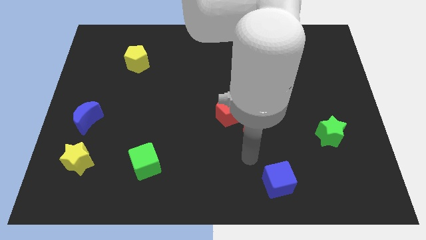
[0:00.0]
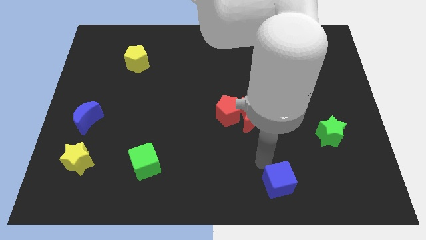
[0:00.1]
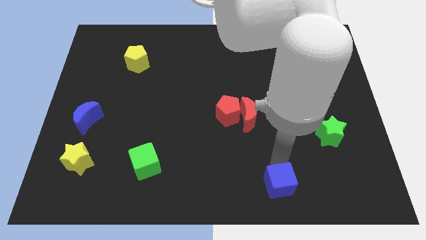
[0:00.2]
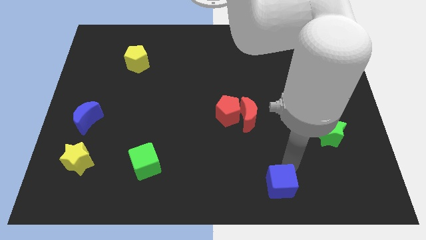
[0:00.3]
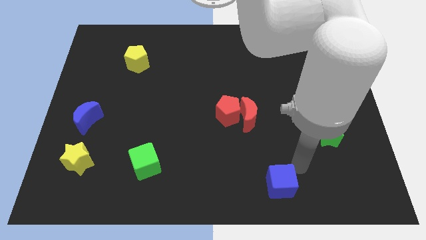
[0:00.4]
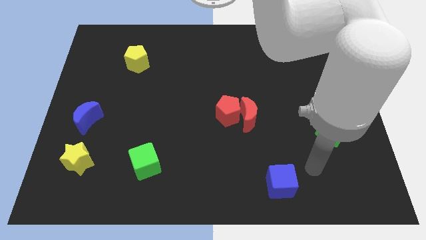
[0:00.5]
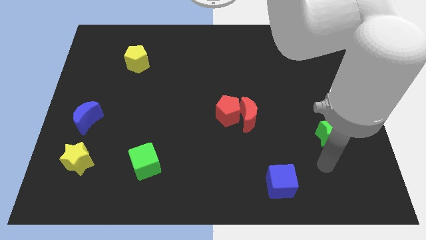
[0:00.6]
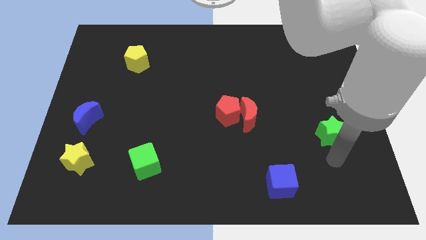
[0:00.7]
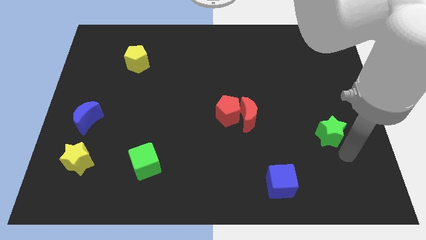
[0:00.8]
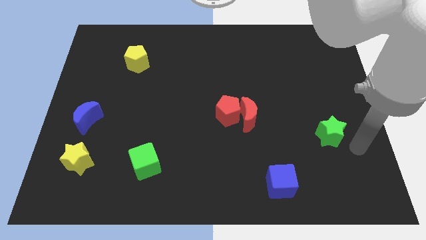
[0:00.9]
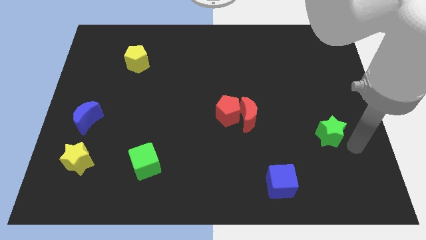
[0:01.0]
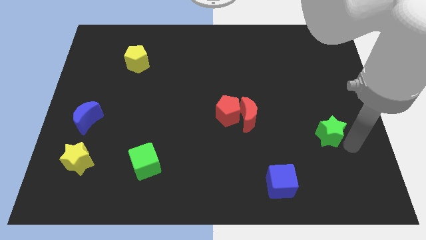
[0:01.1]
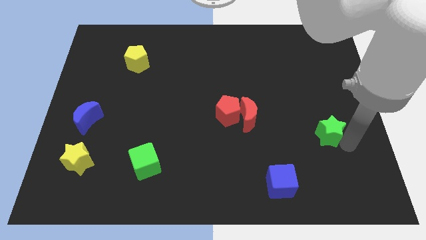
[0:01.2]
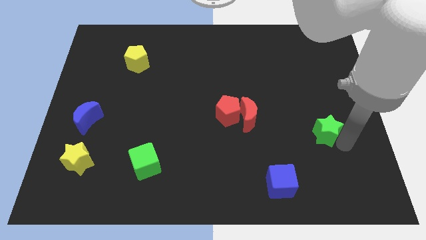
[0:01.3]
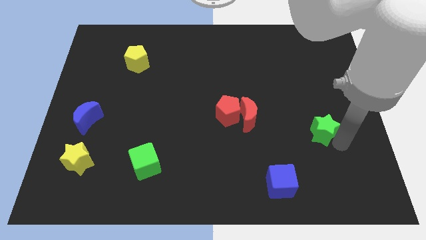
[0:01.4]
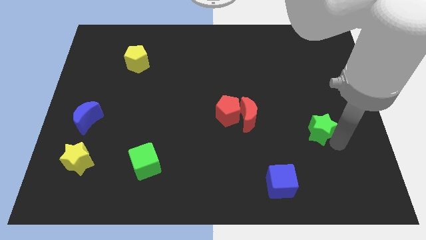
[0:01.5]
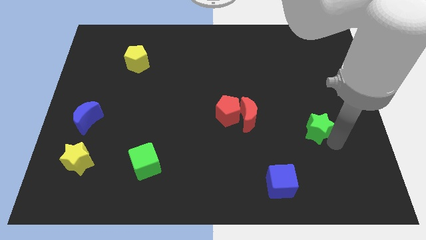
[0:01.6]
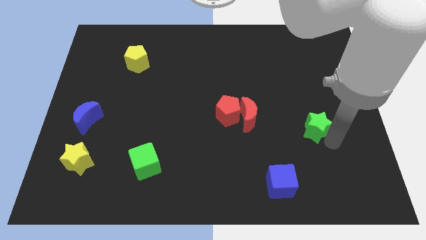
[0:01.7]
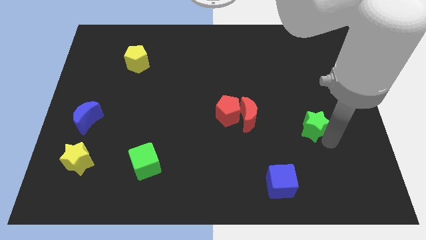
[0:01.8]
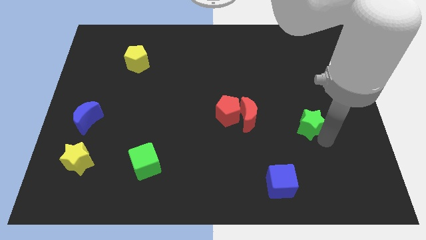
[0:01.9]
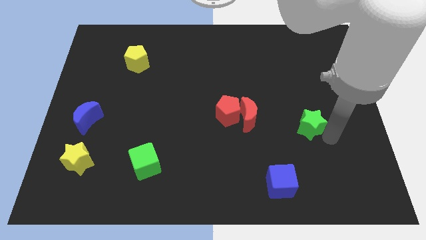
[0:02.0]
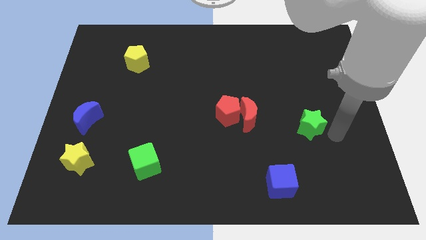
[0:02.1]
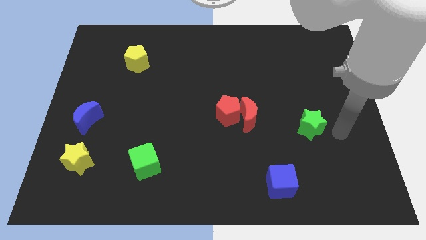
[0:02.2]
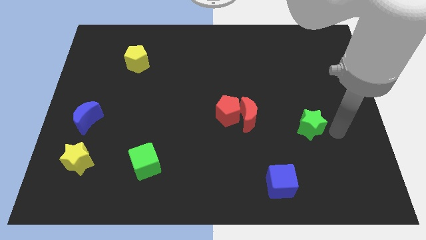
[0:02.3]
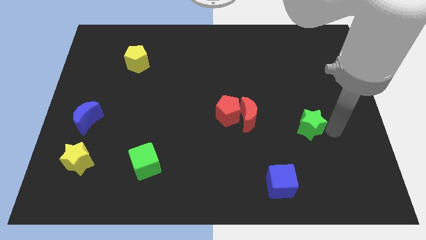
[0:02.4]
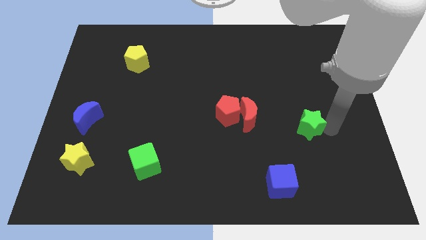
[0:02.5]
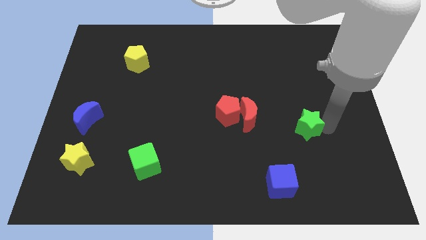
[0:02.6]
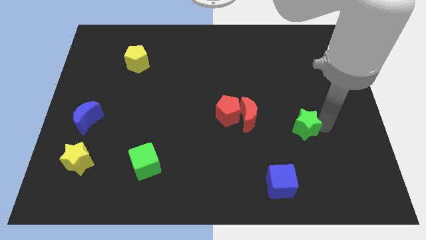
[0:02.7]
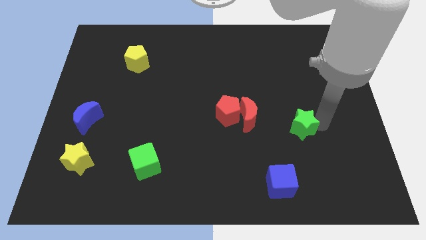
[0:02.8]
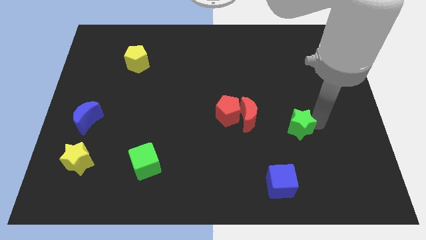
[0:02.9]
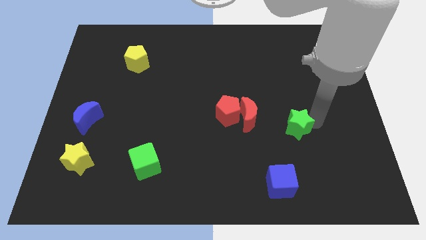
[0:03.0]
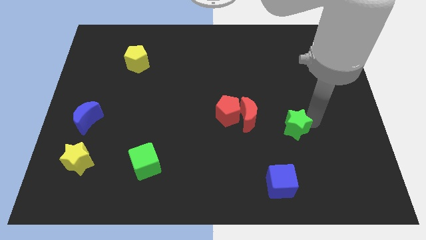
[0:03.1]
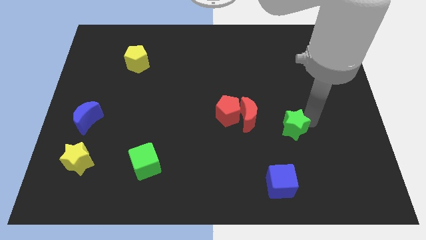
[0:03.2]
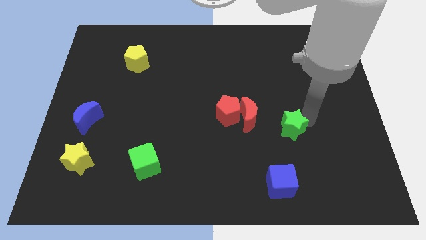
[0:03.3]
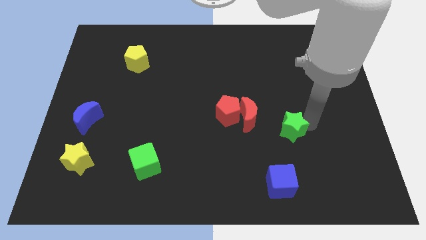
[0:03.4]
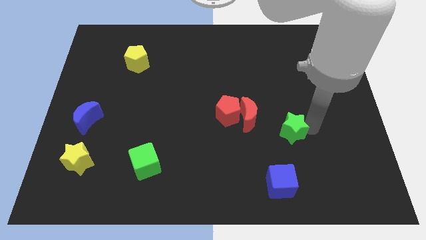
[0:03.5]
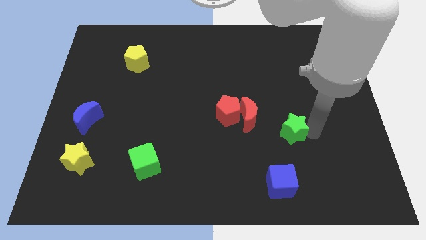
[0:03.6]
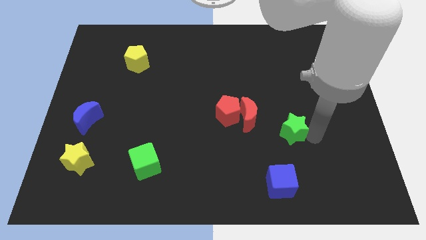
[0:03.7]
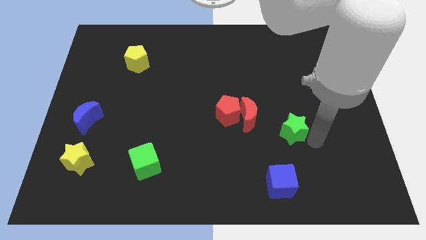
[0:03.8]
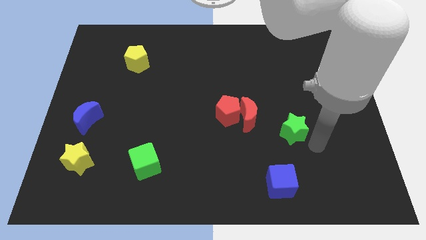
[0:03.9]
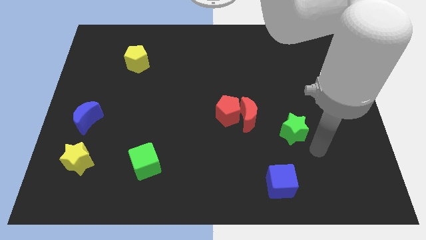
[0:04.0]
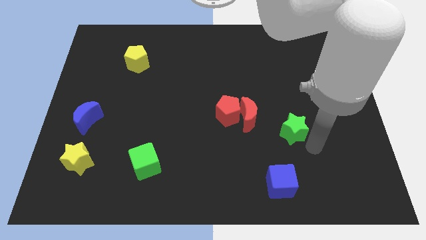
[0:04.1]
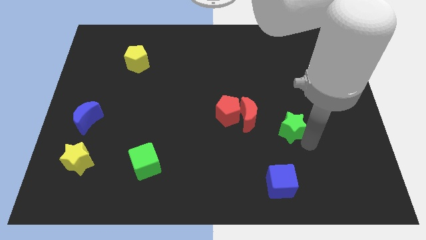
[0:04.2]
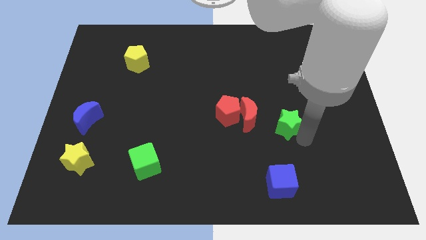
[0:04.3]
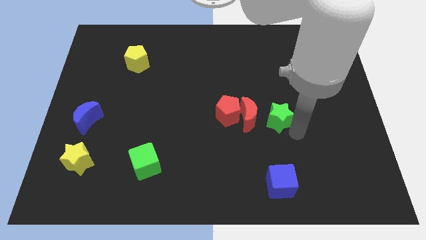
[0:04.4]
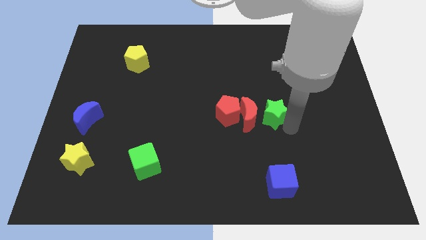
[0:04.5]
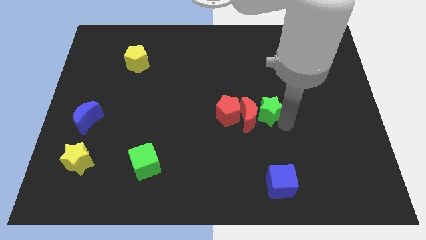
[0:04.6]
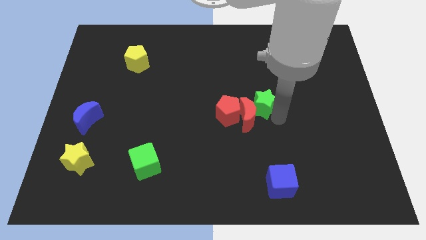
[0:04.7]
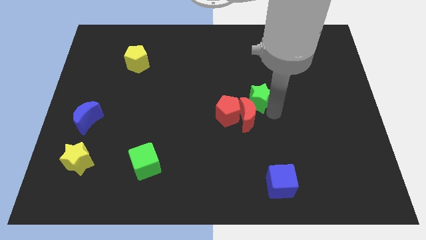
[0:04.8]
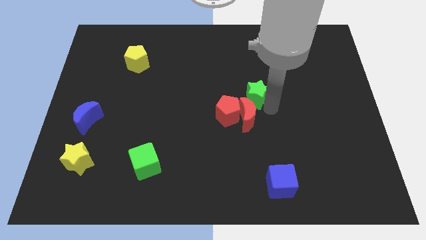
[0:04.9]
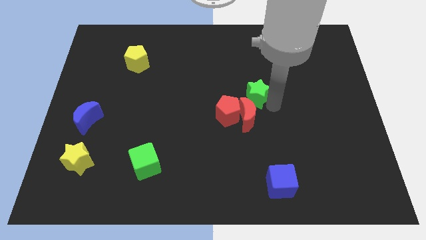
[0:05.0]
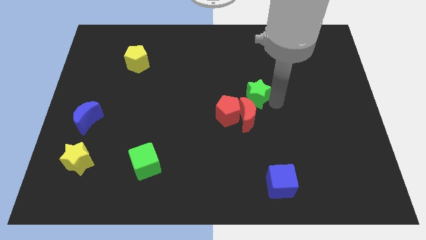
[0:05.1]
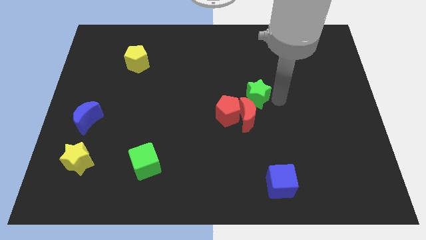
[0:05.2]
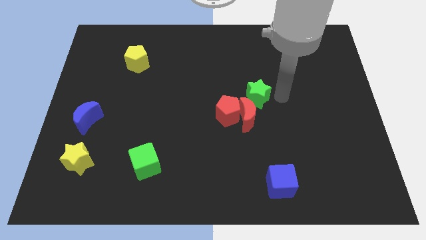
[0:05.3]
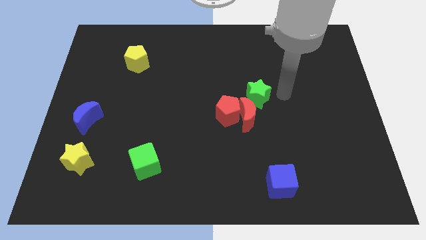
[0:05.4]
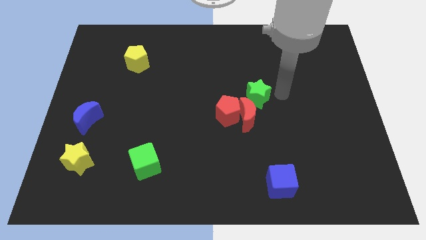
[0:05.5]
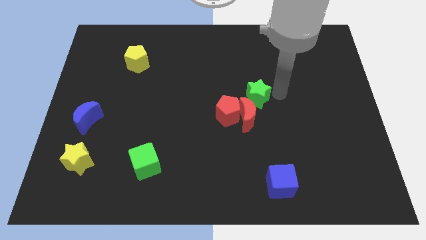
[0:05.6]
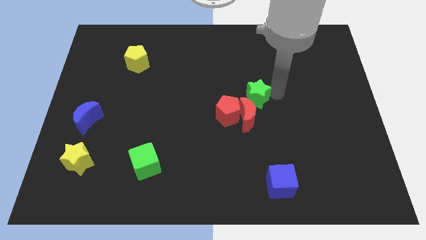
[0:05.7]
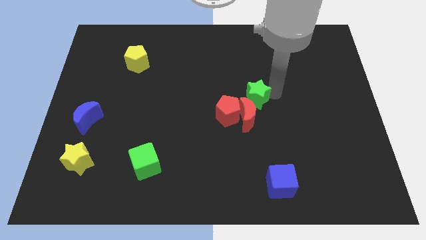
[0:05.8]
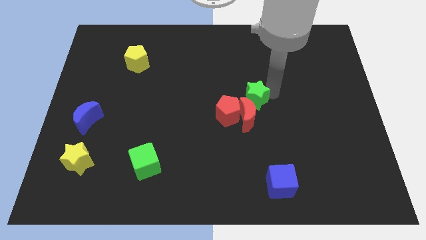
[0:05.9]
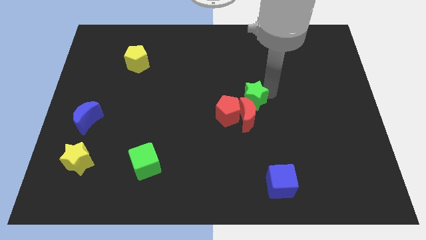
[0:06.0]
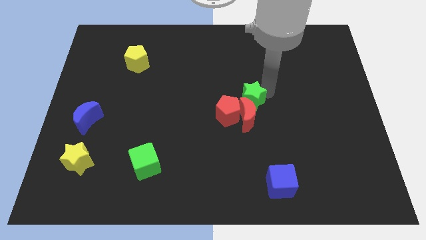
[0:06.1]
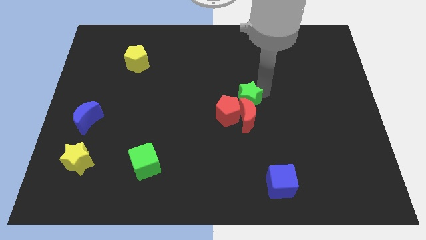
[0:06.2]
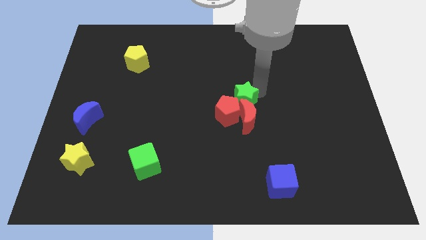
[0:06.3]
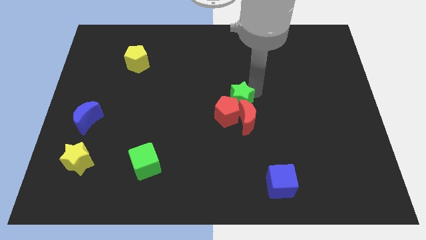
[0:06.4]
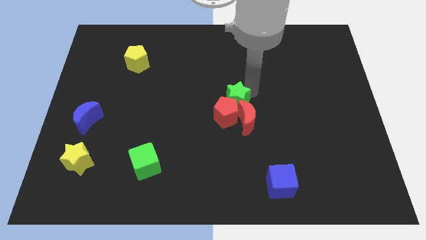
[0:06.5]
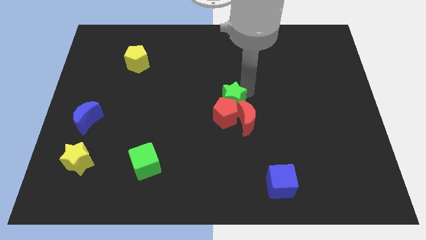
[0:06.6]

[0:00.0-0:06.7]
slide the green star diagonally up and to the left of the red pentagon
